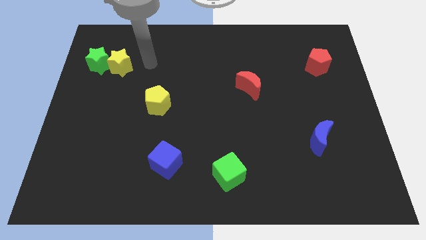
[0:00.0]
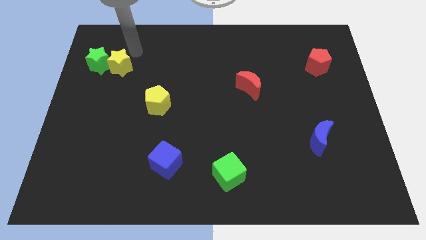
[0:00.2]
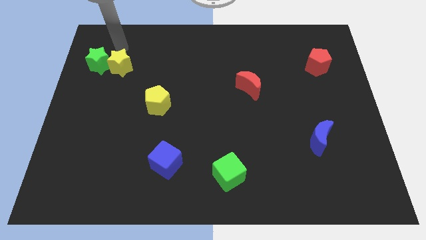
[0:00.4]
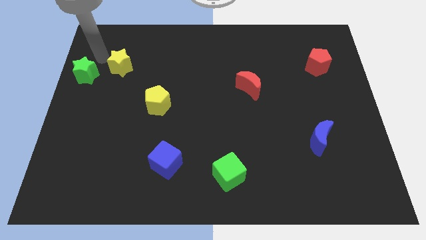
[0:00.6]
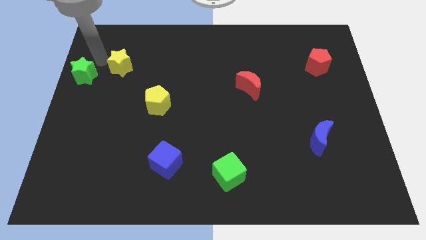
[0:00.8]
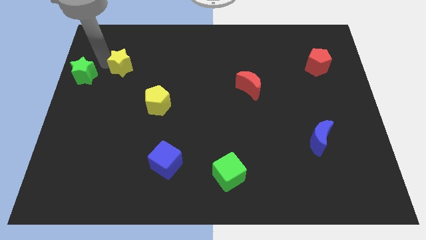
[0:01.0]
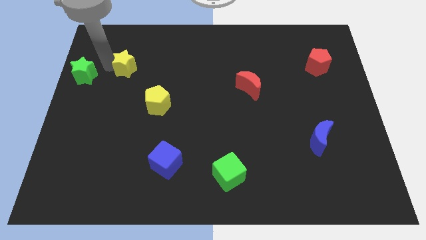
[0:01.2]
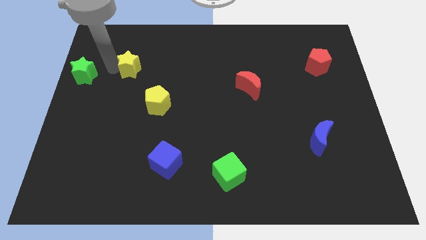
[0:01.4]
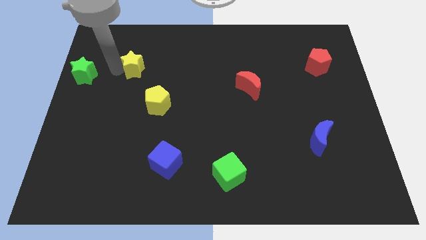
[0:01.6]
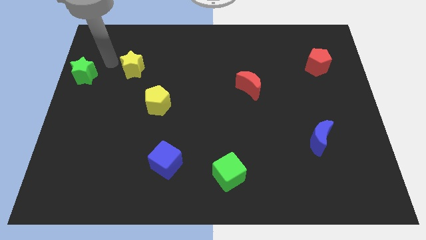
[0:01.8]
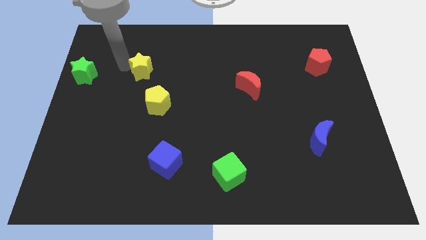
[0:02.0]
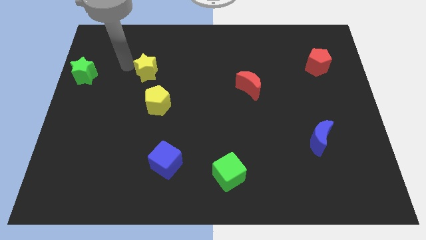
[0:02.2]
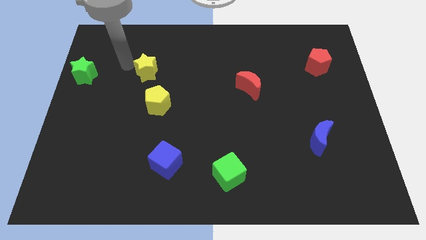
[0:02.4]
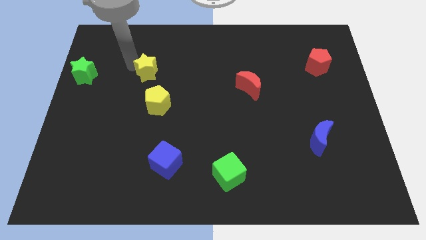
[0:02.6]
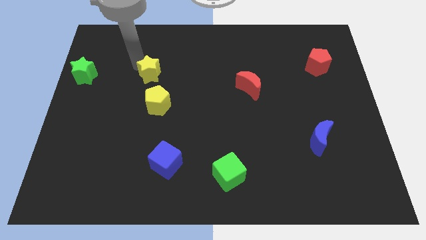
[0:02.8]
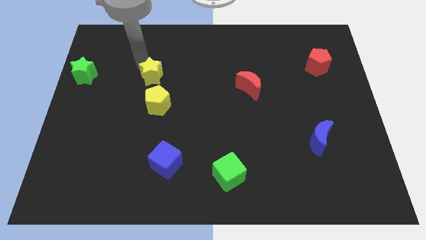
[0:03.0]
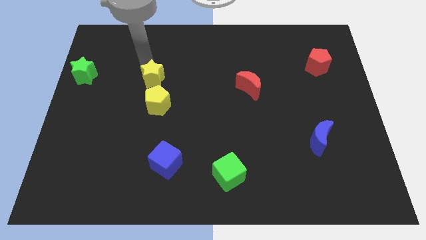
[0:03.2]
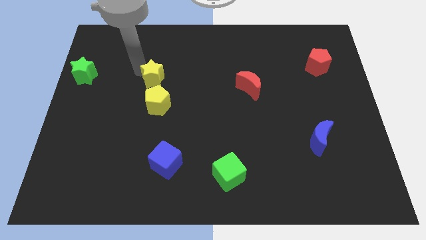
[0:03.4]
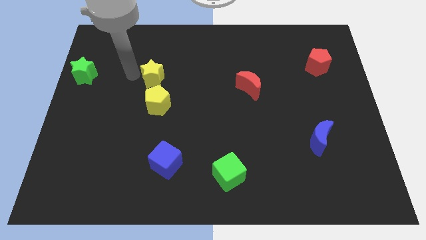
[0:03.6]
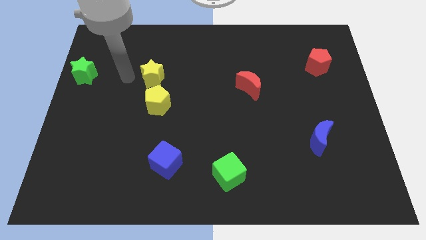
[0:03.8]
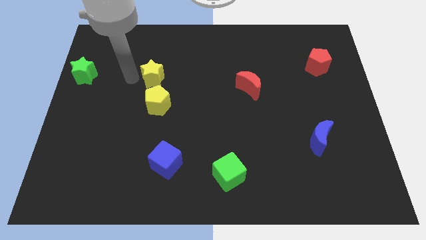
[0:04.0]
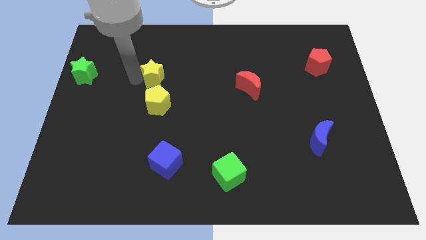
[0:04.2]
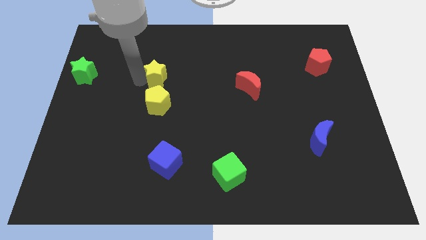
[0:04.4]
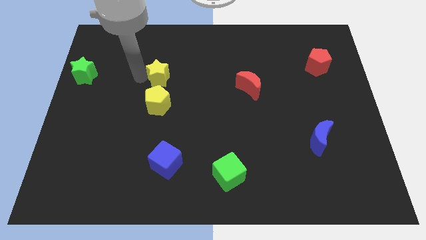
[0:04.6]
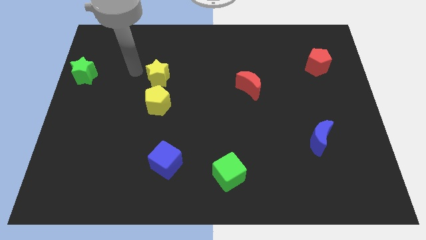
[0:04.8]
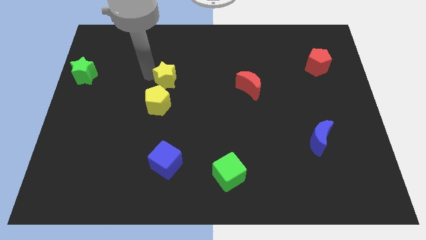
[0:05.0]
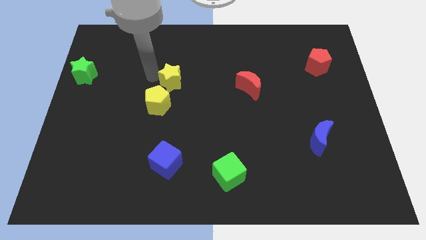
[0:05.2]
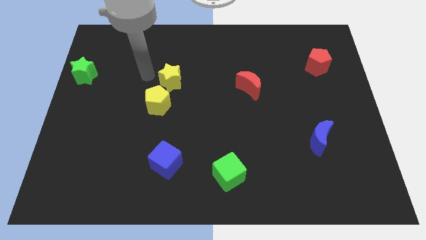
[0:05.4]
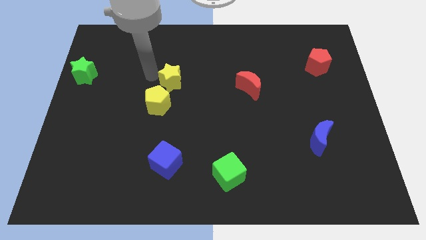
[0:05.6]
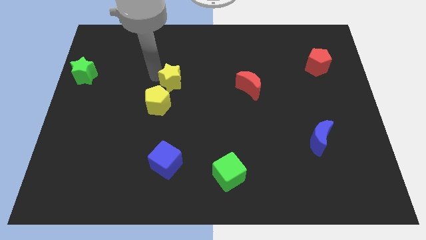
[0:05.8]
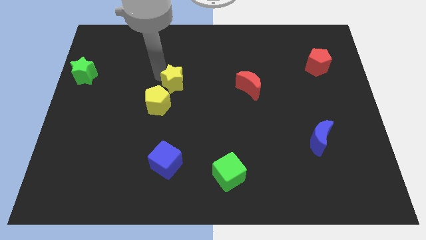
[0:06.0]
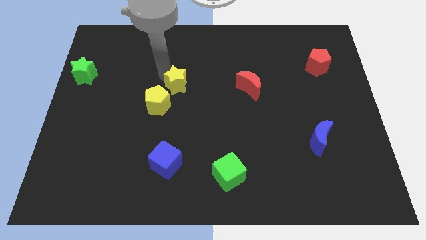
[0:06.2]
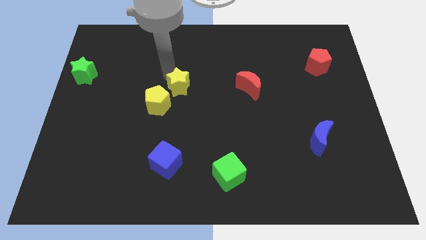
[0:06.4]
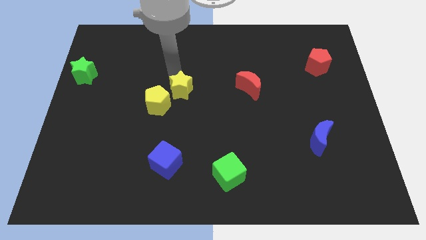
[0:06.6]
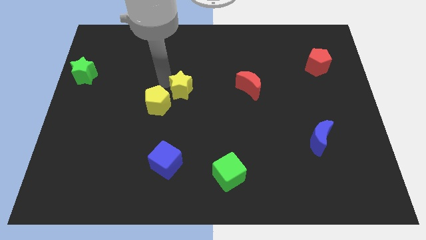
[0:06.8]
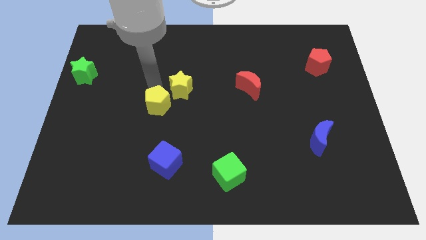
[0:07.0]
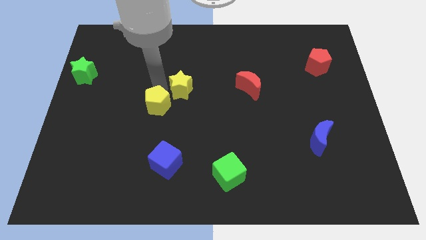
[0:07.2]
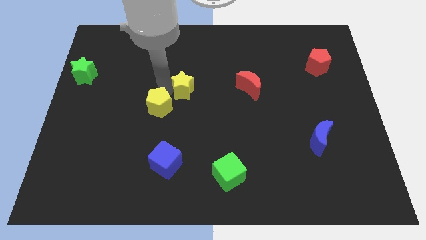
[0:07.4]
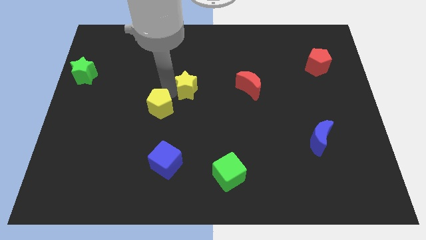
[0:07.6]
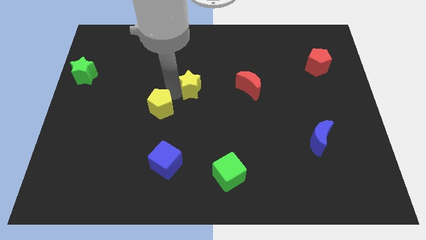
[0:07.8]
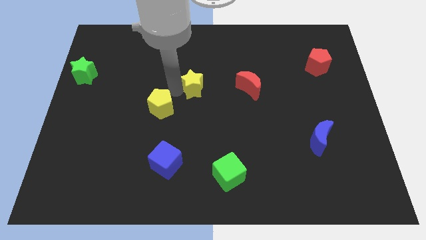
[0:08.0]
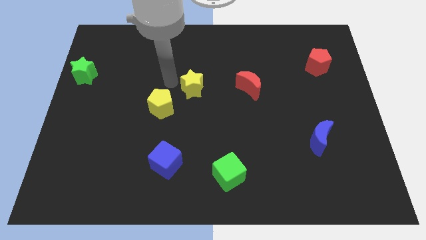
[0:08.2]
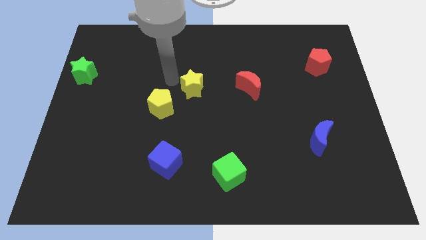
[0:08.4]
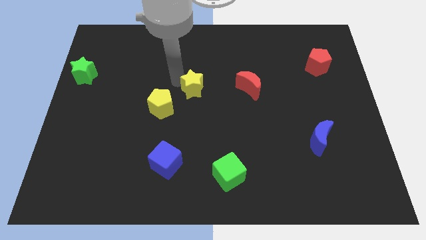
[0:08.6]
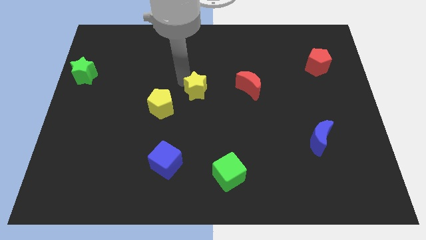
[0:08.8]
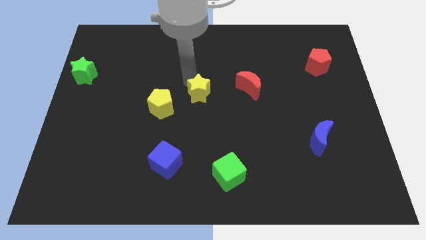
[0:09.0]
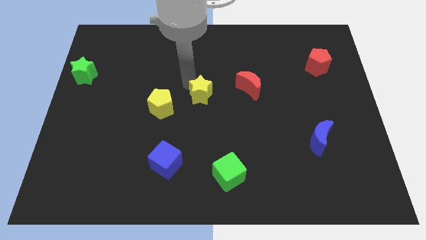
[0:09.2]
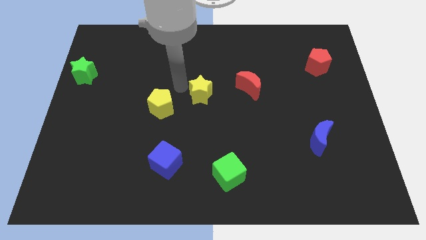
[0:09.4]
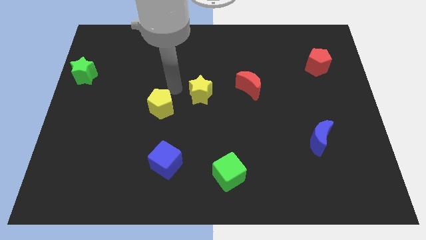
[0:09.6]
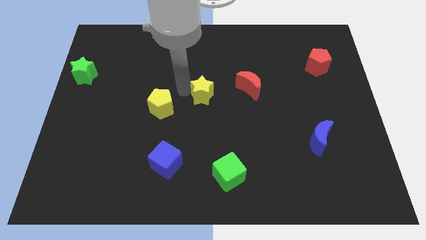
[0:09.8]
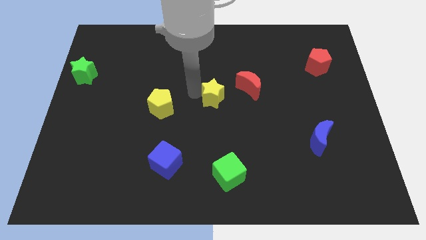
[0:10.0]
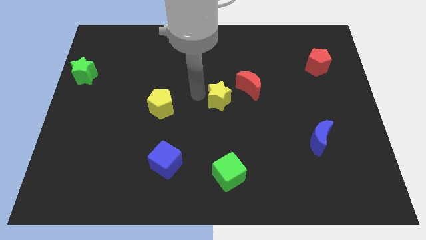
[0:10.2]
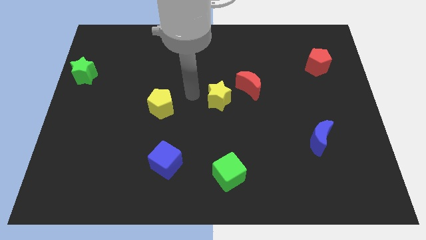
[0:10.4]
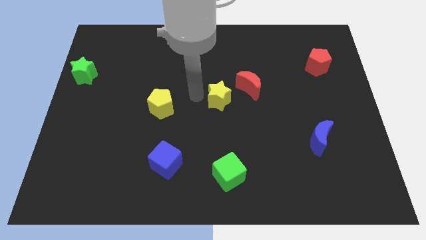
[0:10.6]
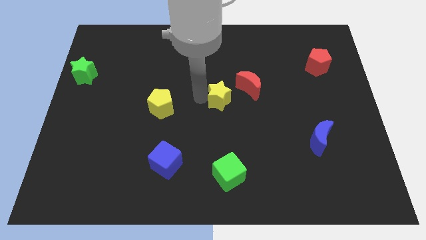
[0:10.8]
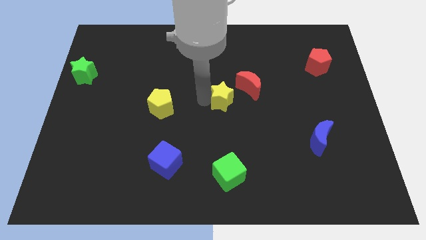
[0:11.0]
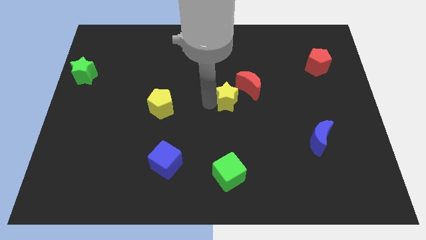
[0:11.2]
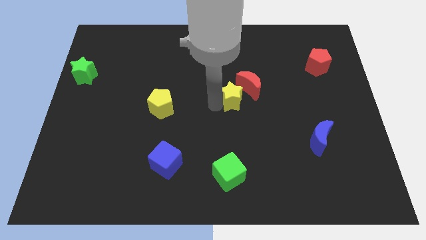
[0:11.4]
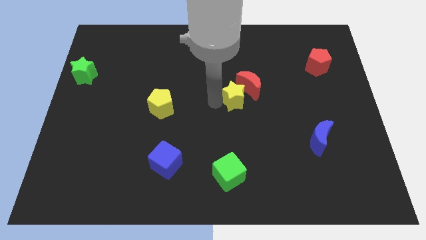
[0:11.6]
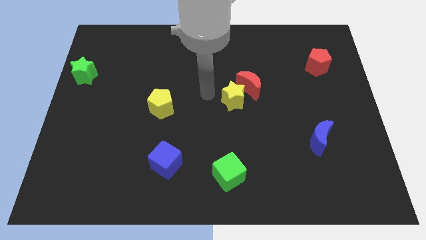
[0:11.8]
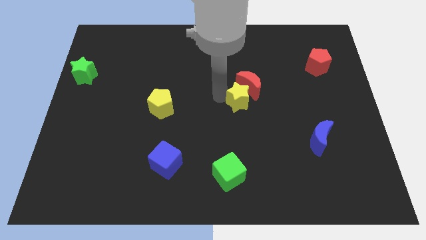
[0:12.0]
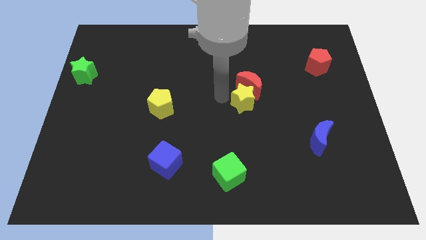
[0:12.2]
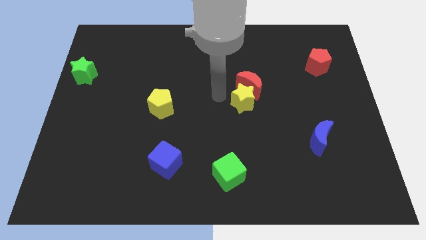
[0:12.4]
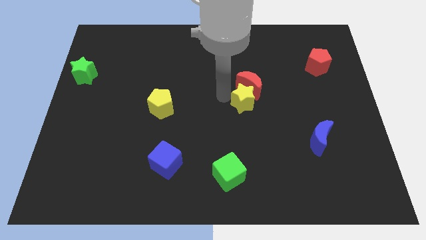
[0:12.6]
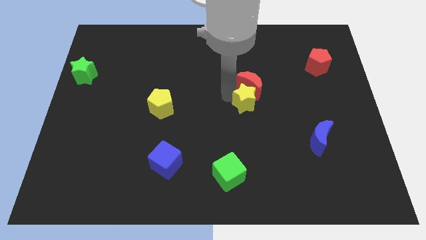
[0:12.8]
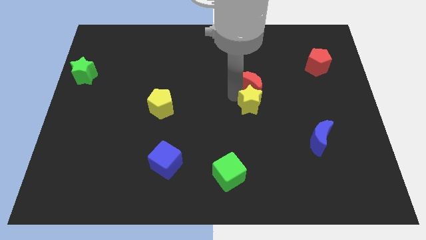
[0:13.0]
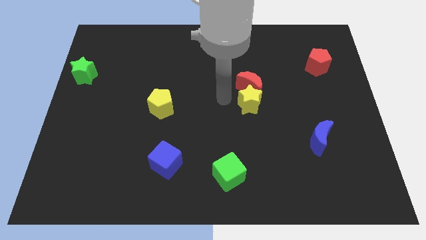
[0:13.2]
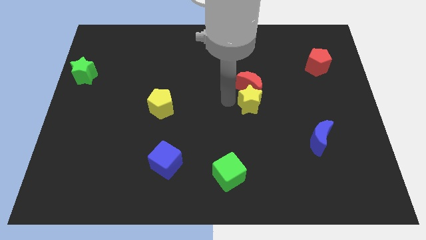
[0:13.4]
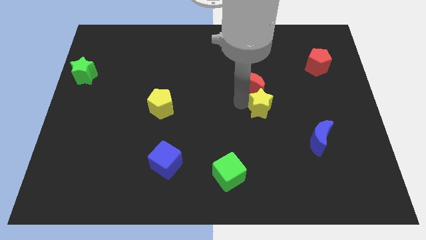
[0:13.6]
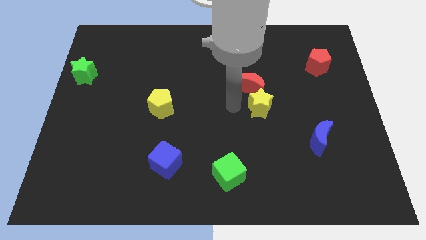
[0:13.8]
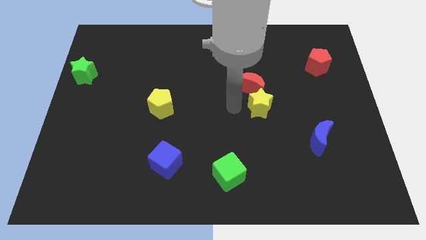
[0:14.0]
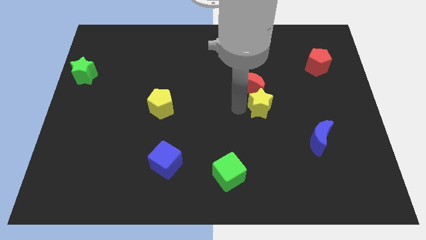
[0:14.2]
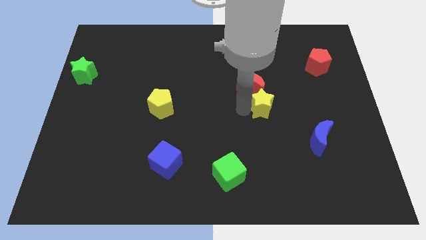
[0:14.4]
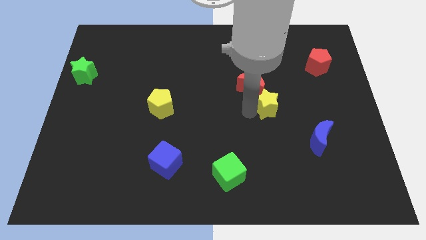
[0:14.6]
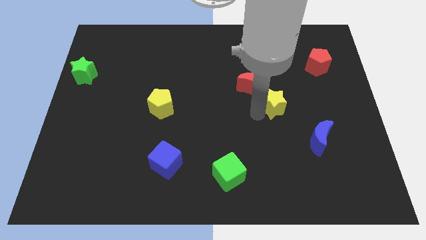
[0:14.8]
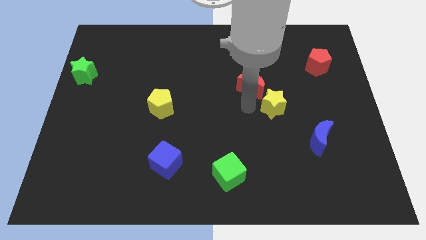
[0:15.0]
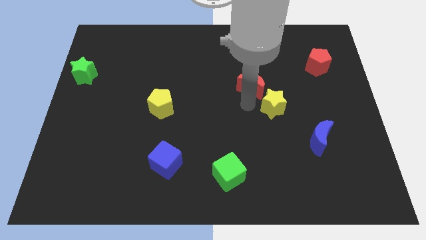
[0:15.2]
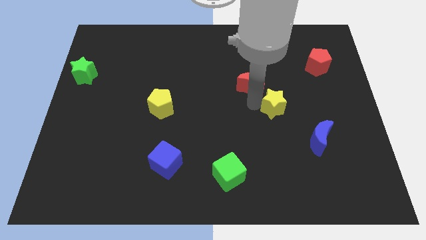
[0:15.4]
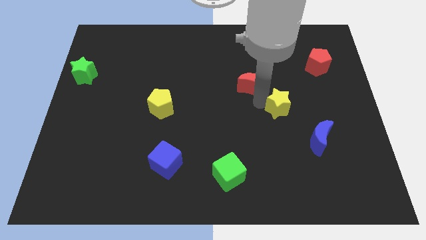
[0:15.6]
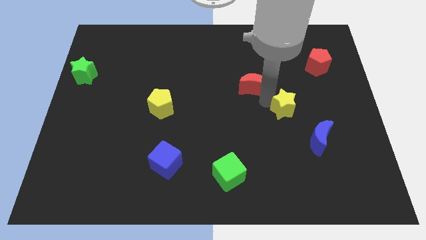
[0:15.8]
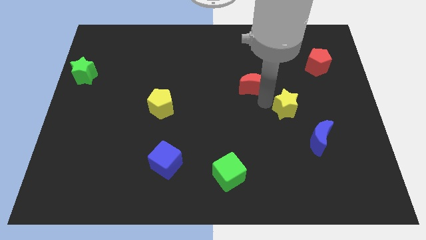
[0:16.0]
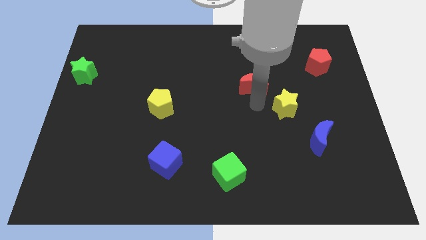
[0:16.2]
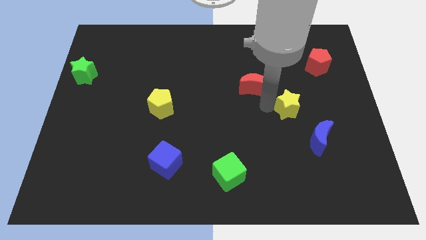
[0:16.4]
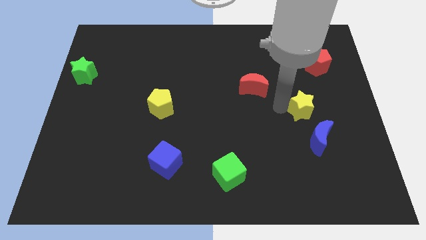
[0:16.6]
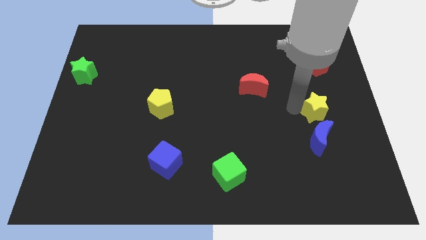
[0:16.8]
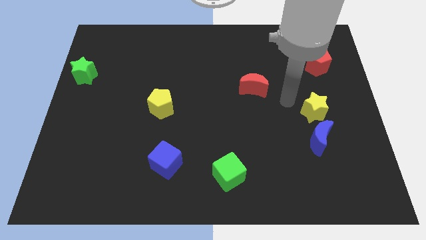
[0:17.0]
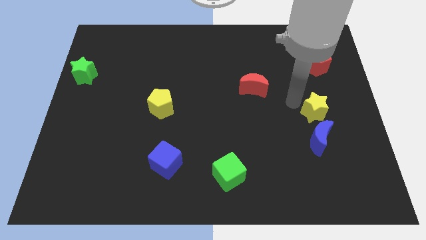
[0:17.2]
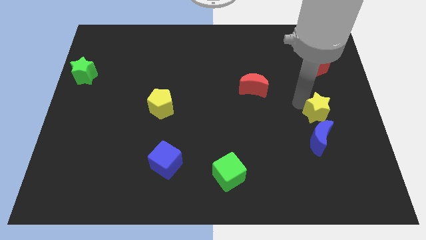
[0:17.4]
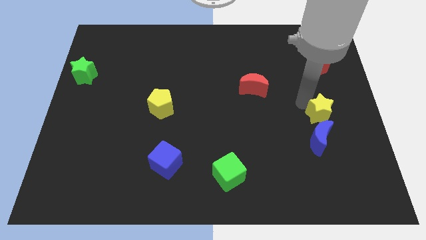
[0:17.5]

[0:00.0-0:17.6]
slide the yellow star to the top right of the blue moon
